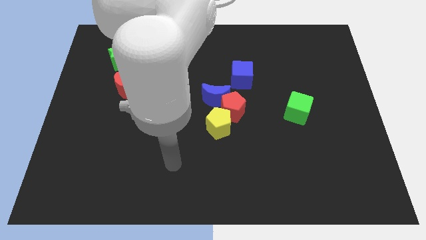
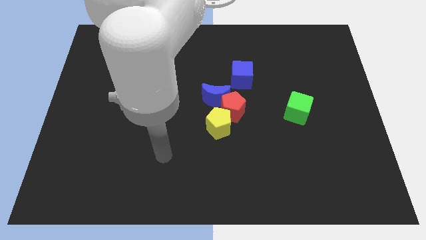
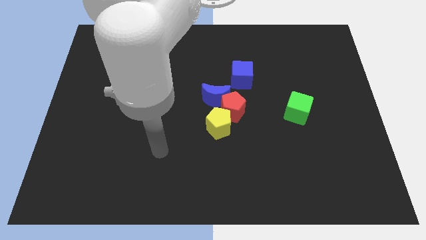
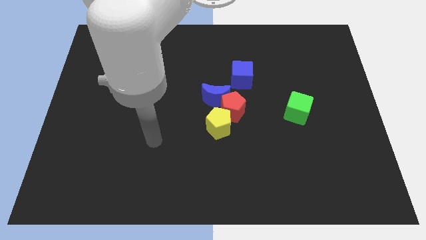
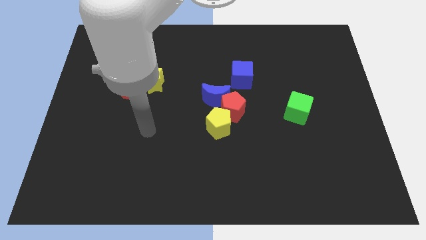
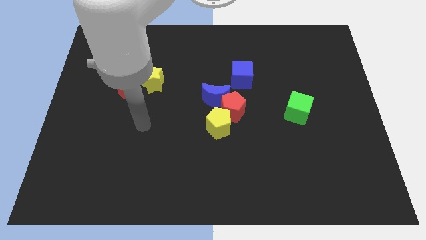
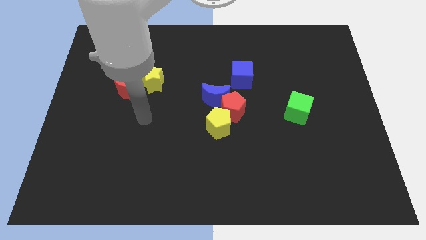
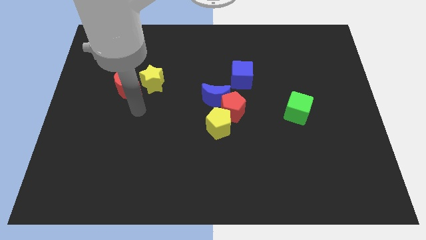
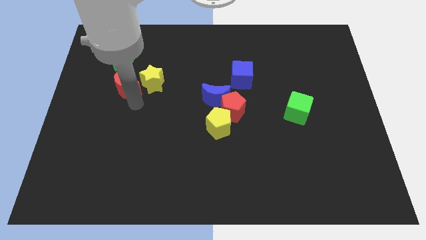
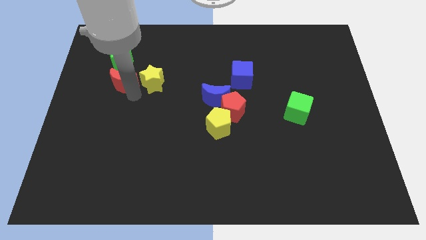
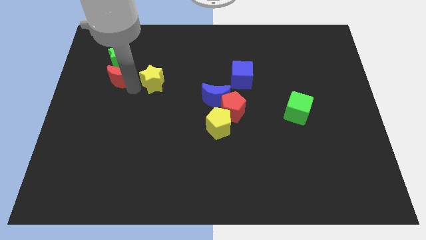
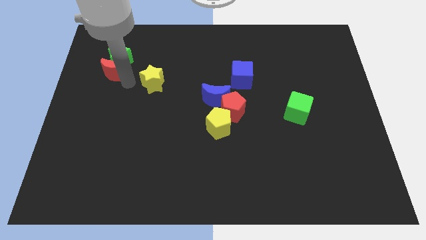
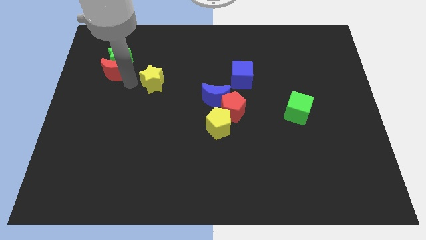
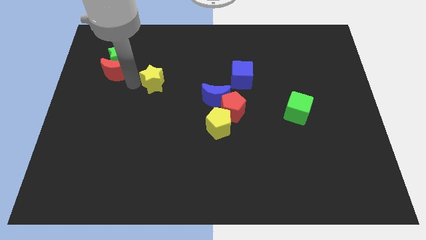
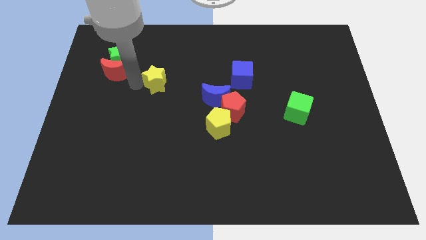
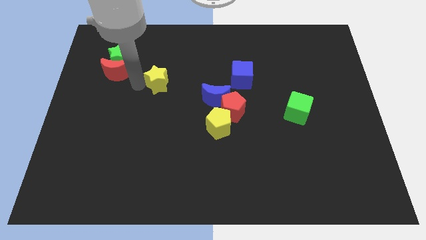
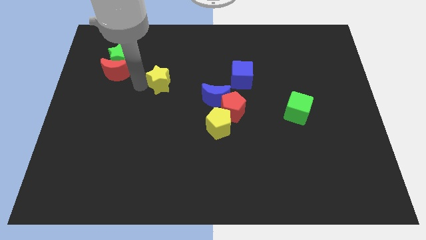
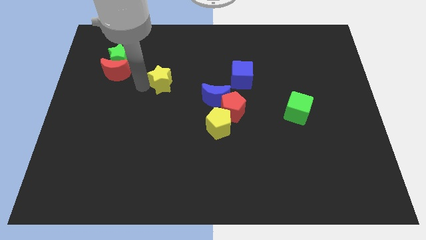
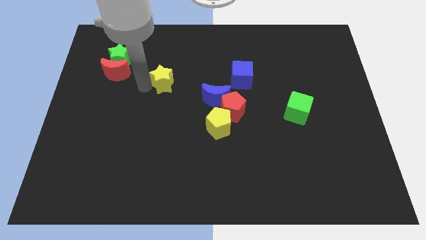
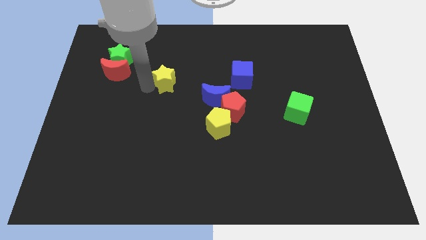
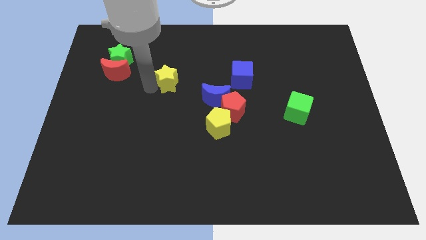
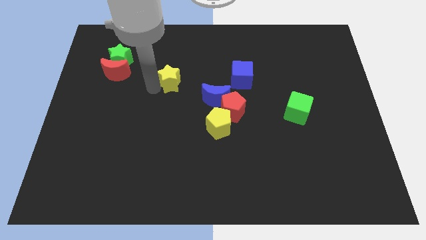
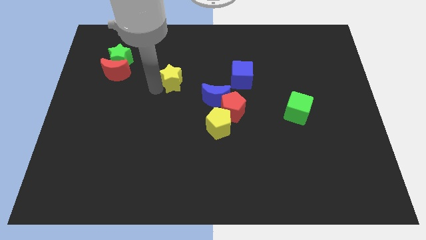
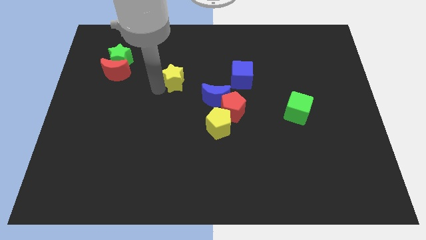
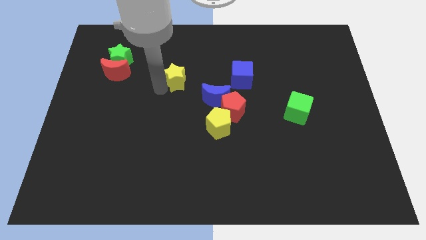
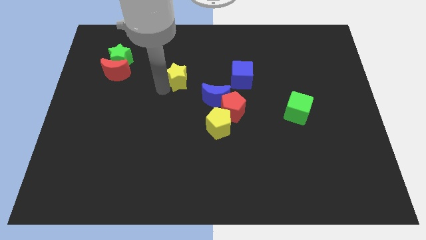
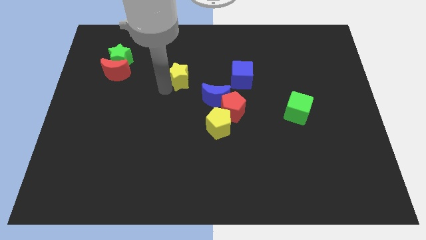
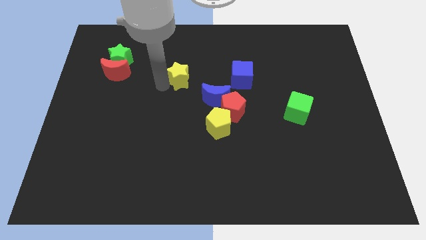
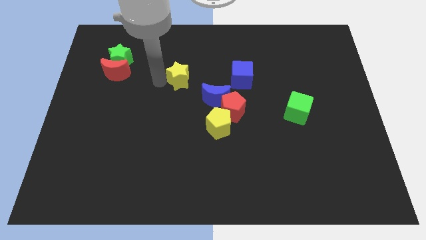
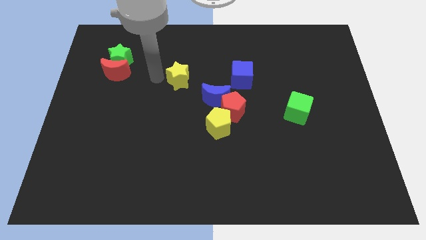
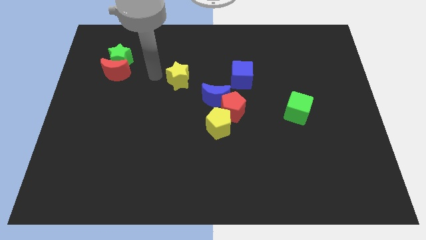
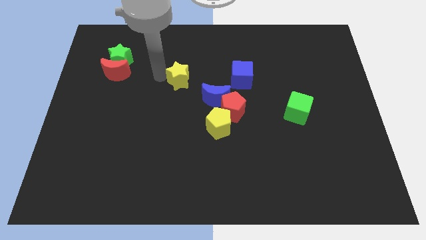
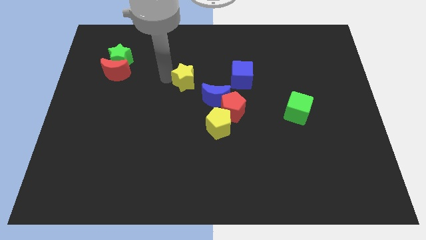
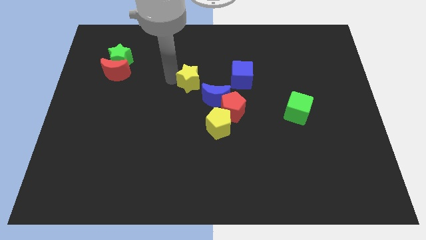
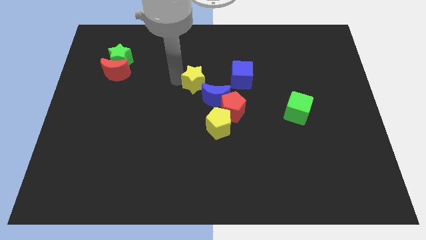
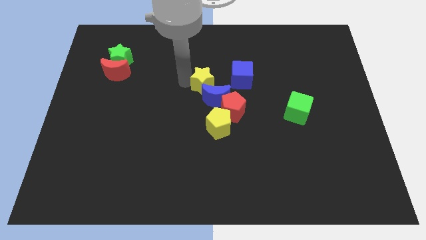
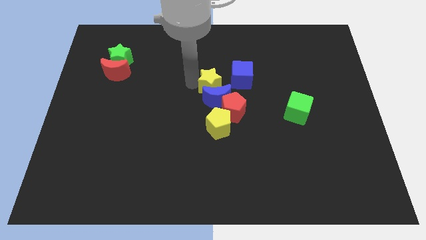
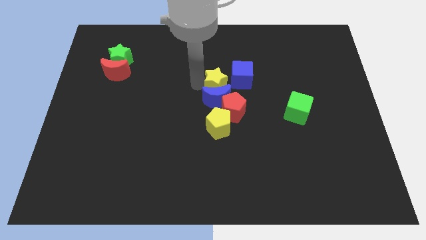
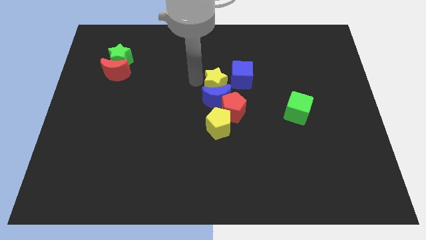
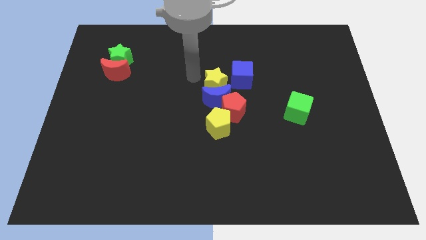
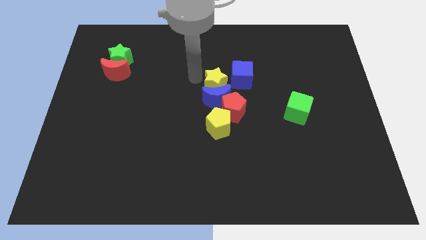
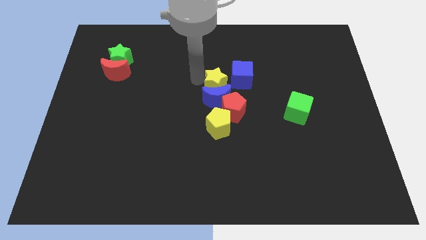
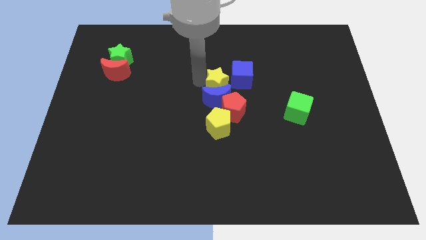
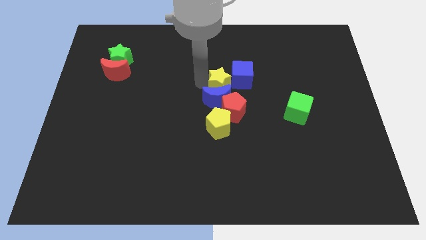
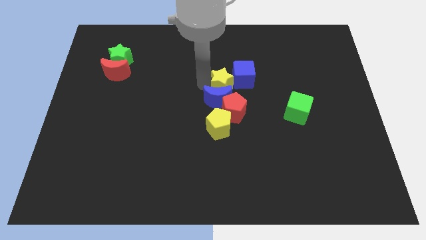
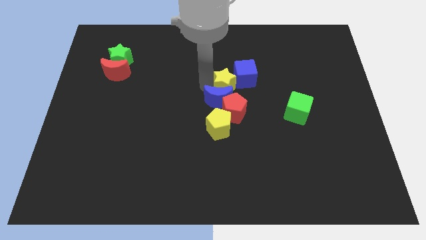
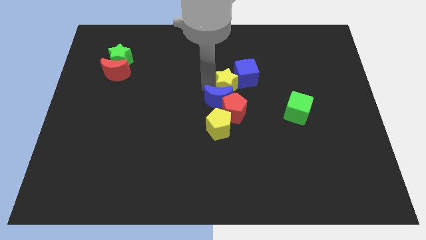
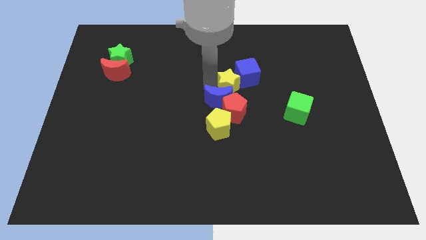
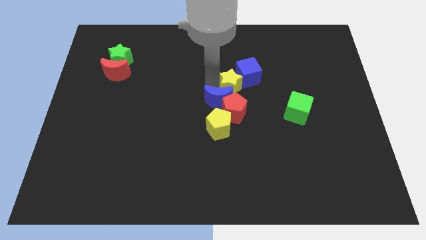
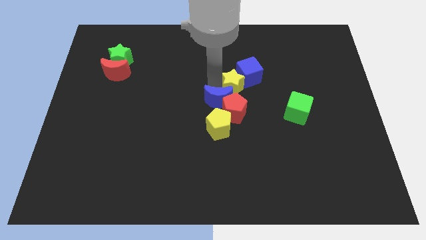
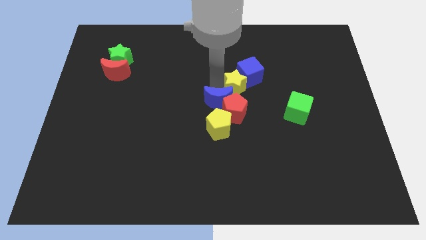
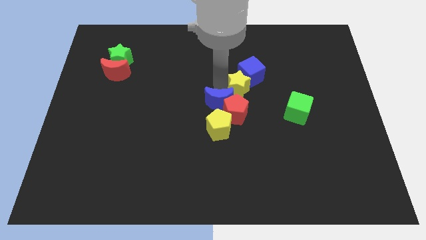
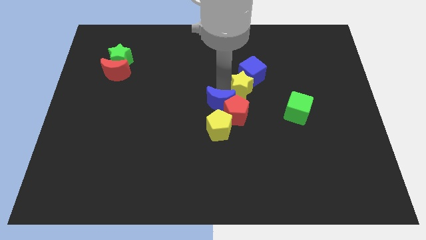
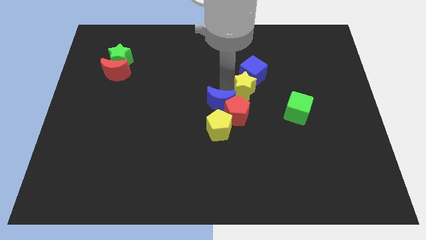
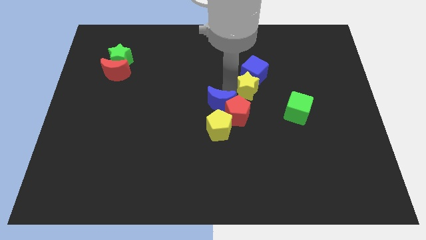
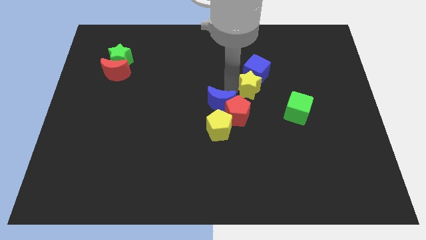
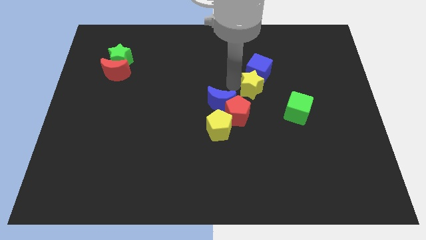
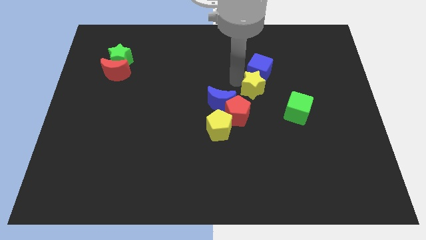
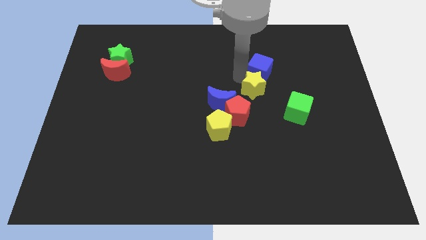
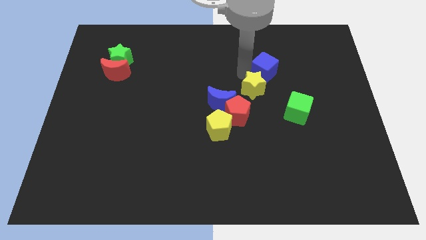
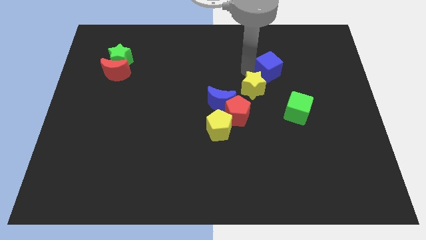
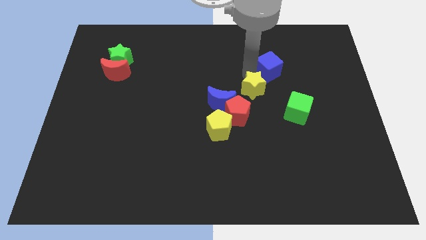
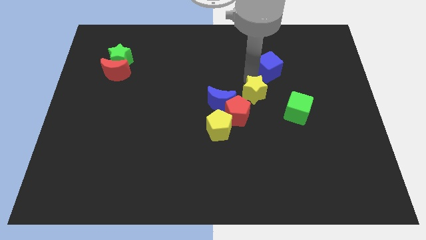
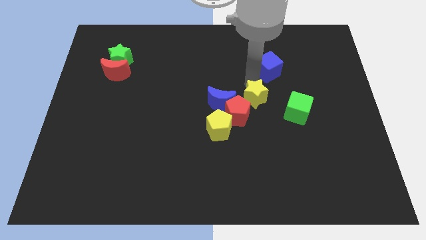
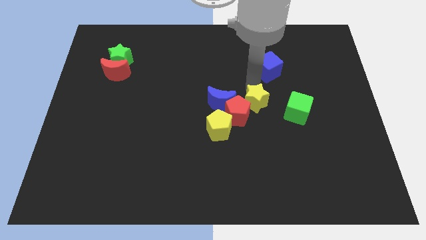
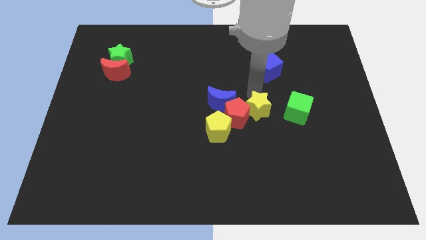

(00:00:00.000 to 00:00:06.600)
slide the yellow star to the bottom right of the red pentagon

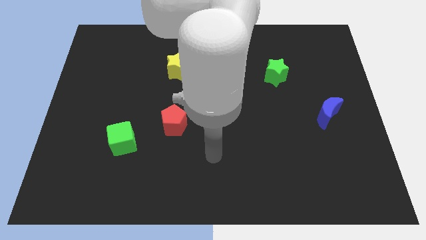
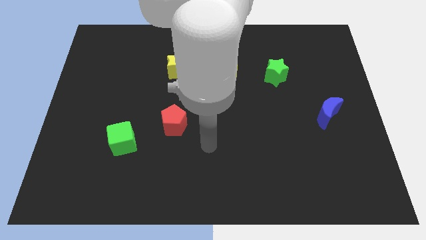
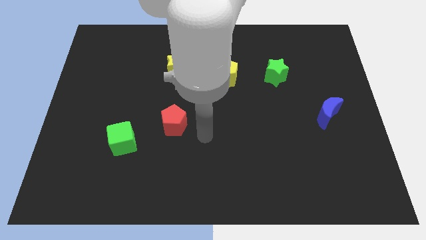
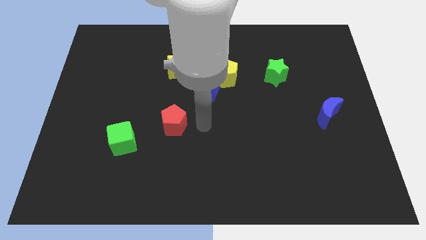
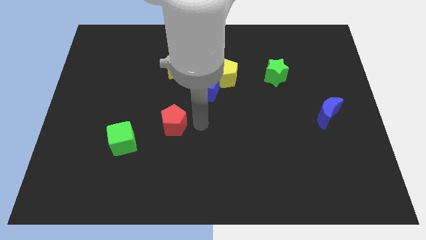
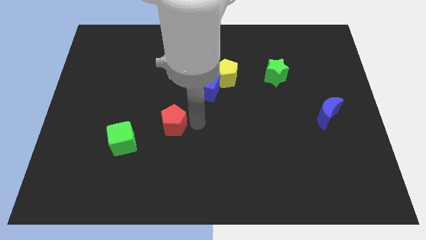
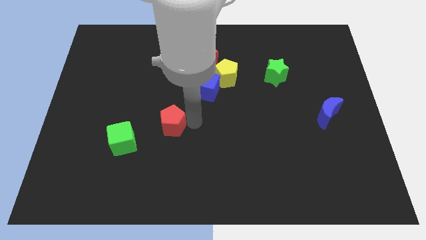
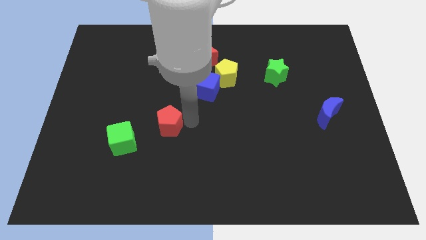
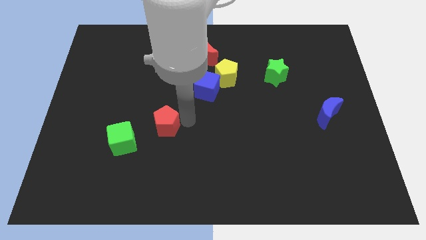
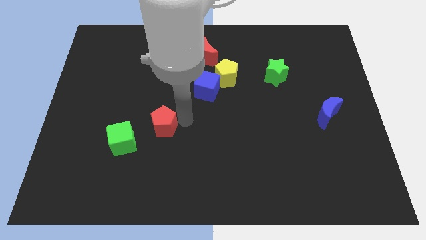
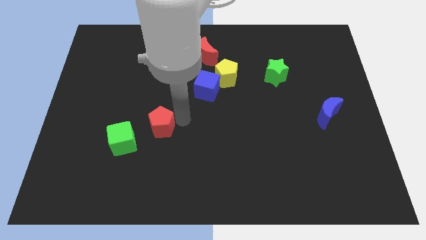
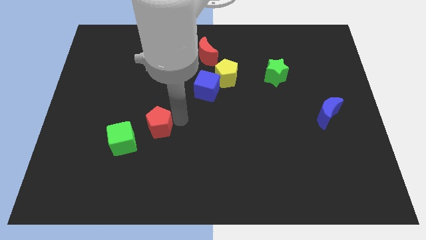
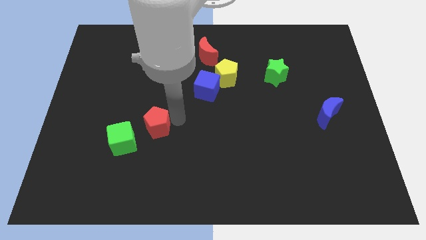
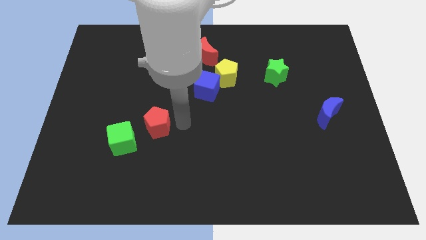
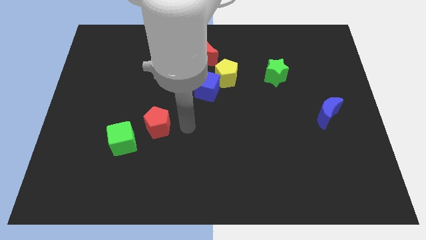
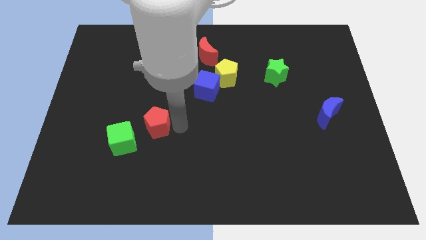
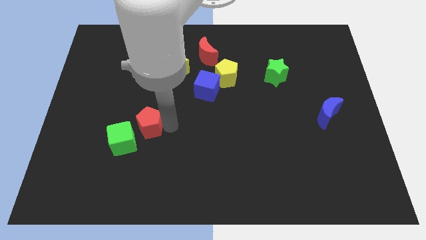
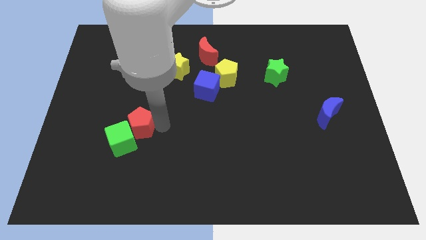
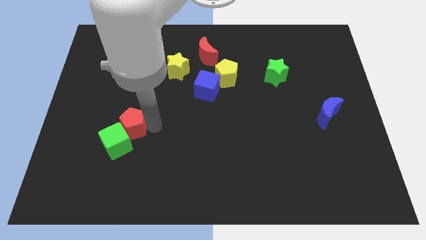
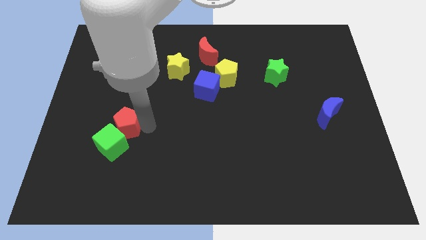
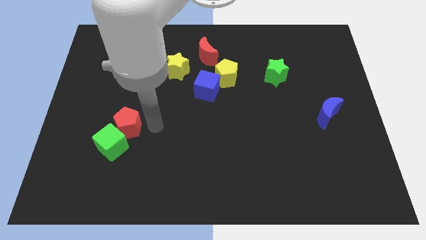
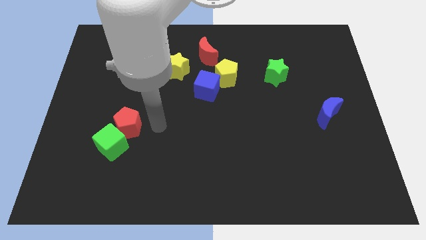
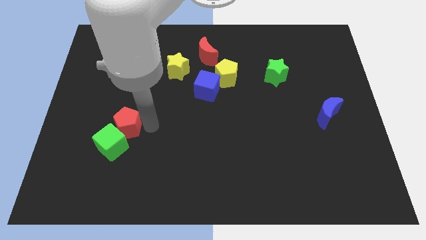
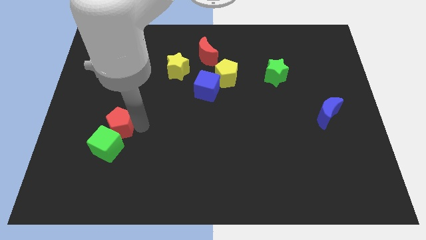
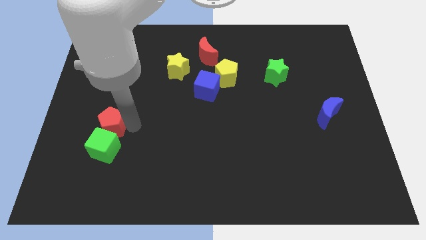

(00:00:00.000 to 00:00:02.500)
move the red pentagon to the top left side of the green cube
